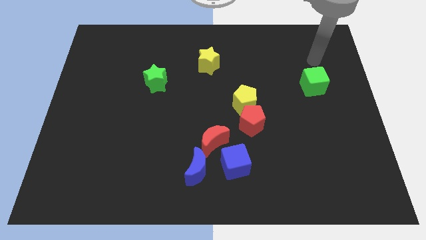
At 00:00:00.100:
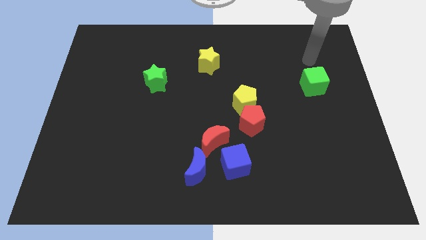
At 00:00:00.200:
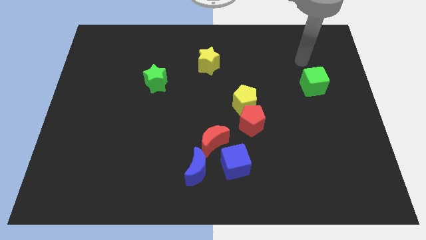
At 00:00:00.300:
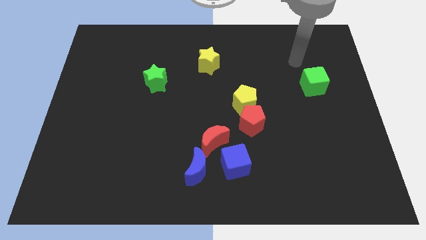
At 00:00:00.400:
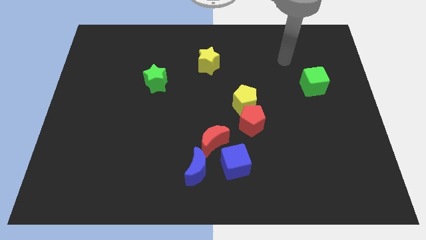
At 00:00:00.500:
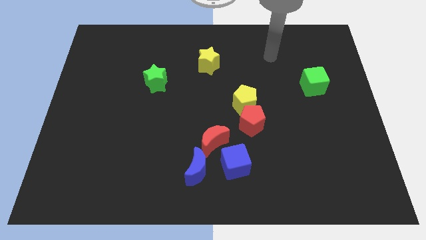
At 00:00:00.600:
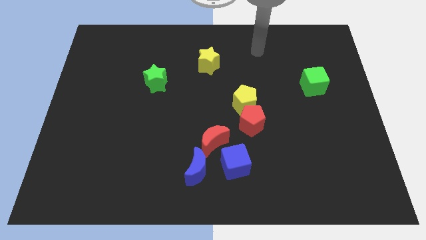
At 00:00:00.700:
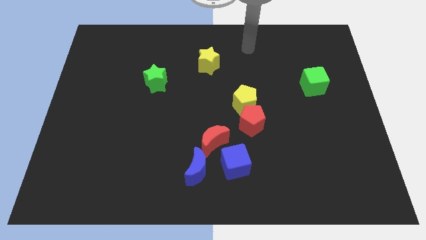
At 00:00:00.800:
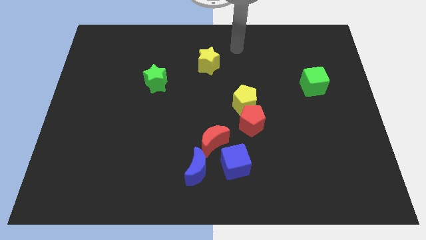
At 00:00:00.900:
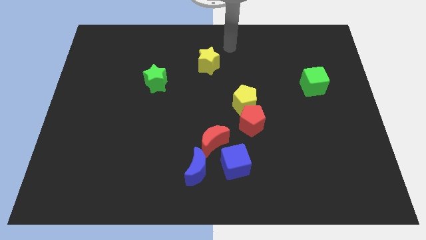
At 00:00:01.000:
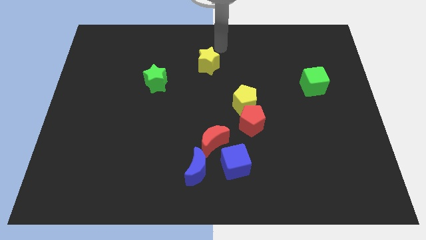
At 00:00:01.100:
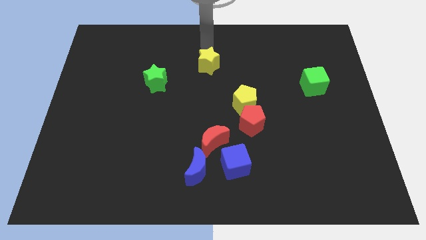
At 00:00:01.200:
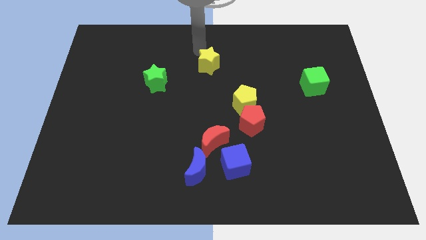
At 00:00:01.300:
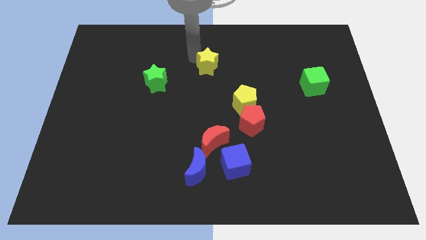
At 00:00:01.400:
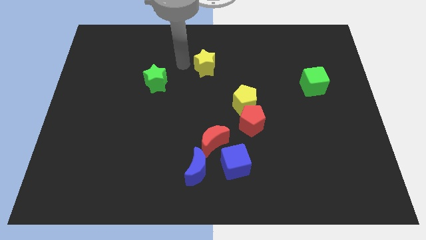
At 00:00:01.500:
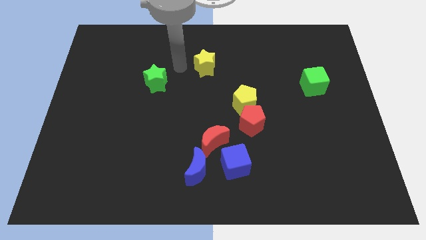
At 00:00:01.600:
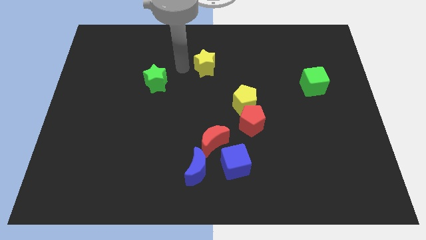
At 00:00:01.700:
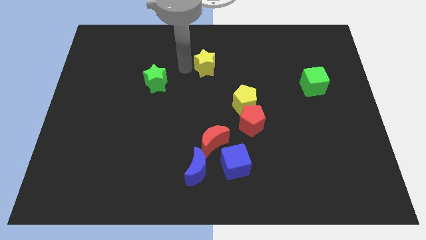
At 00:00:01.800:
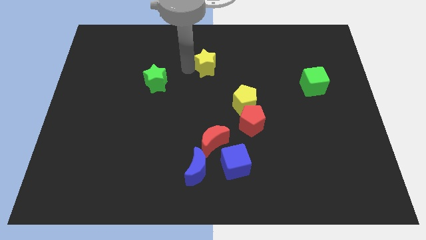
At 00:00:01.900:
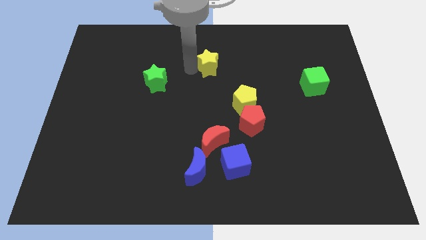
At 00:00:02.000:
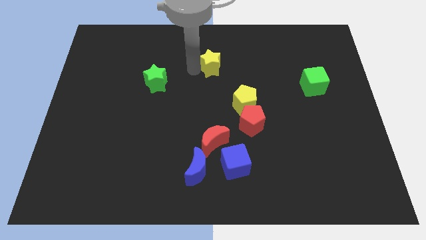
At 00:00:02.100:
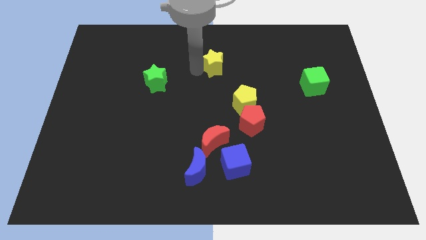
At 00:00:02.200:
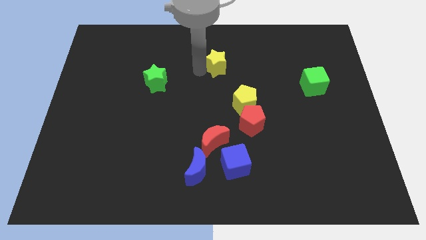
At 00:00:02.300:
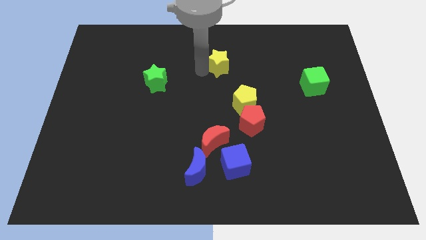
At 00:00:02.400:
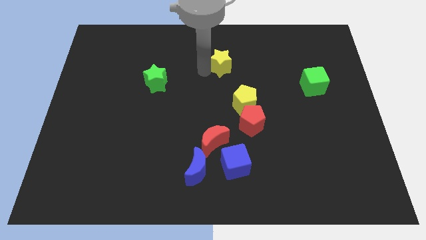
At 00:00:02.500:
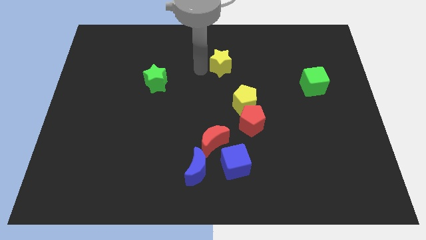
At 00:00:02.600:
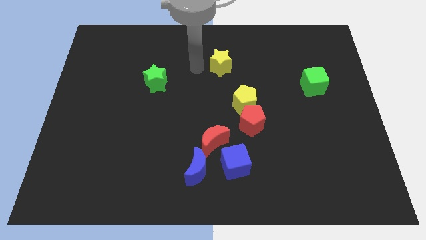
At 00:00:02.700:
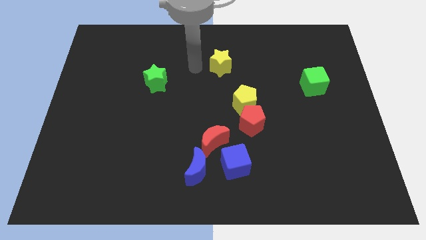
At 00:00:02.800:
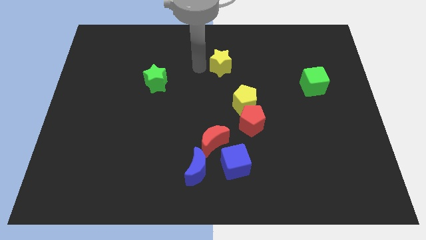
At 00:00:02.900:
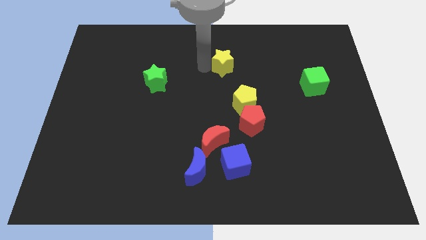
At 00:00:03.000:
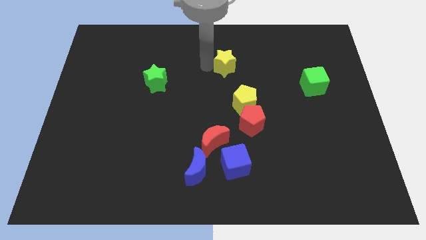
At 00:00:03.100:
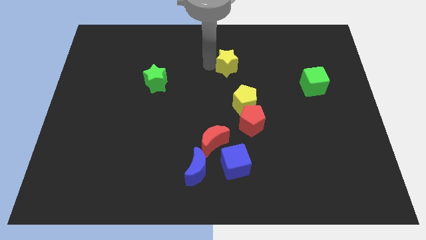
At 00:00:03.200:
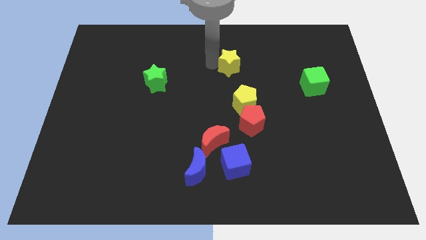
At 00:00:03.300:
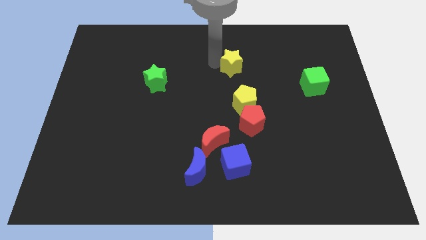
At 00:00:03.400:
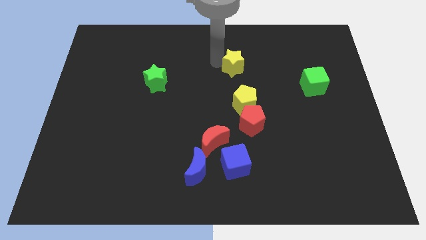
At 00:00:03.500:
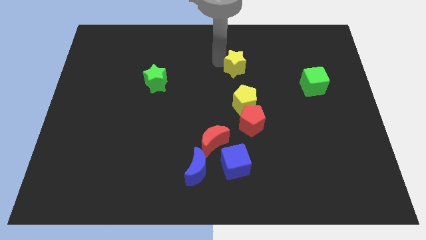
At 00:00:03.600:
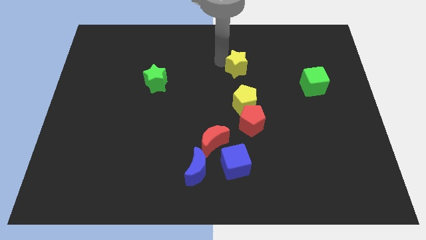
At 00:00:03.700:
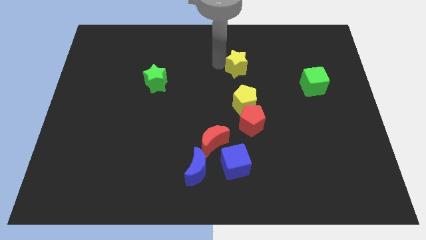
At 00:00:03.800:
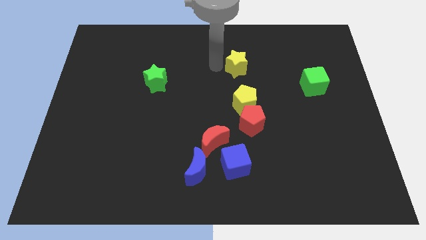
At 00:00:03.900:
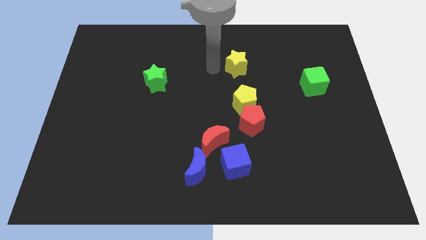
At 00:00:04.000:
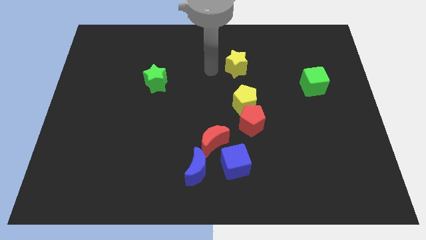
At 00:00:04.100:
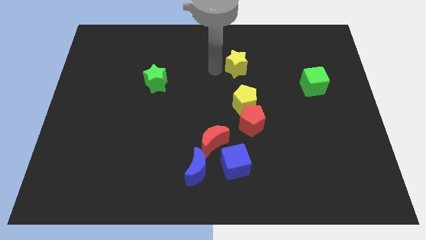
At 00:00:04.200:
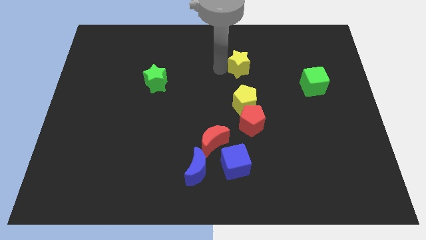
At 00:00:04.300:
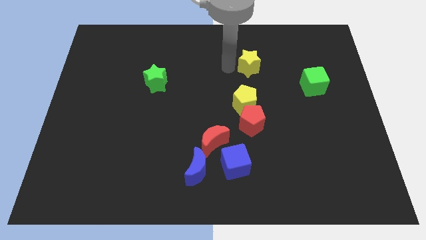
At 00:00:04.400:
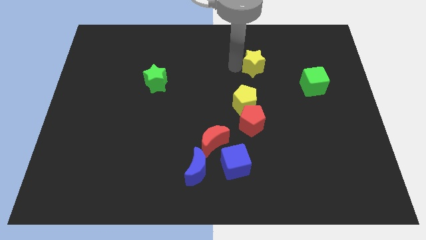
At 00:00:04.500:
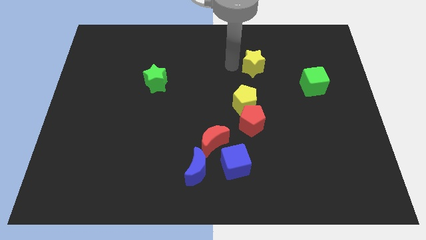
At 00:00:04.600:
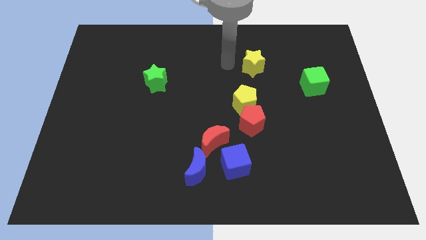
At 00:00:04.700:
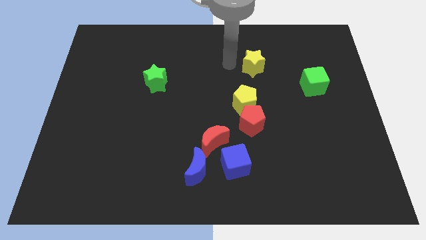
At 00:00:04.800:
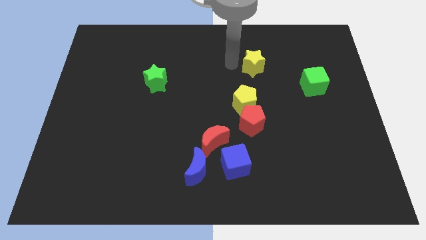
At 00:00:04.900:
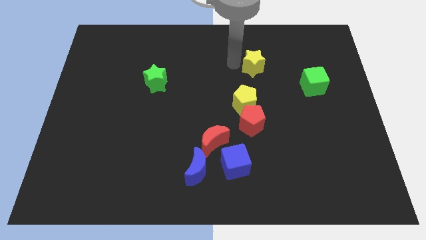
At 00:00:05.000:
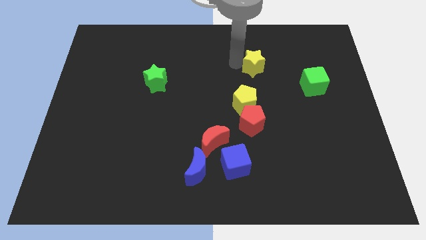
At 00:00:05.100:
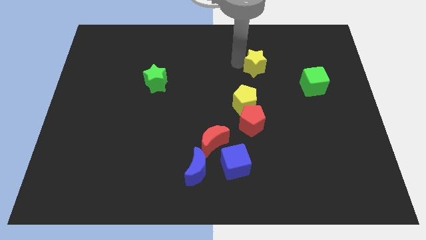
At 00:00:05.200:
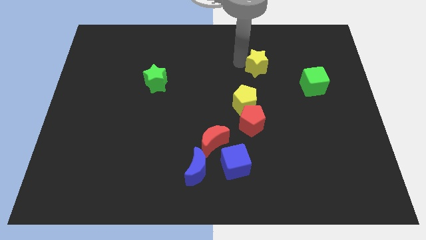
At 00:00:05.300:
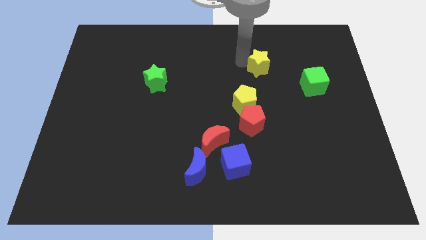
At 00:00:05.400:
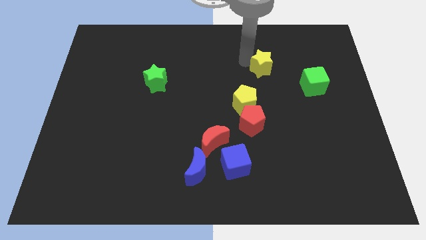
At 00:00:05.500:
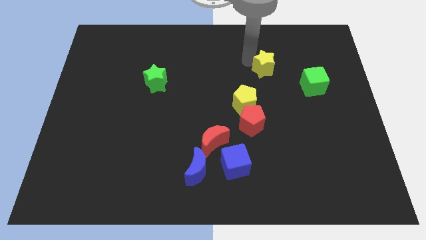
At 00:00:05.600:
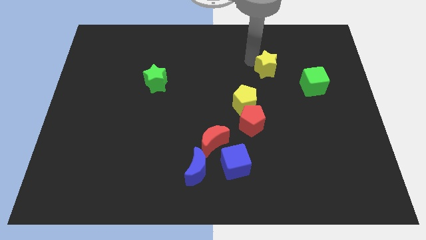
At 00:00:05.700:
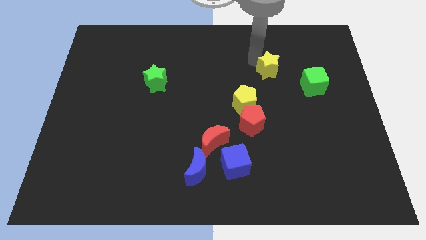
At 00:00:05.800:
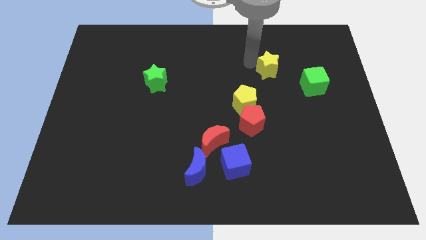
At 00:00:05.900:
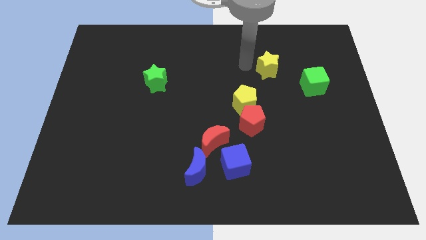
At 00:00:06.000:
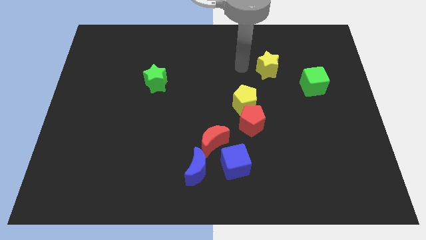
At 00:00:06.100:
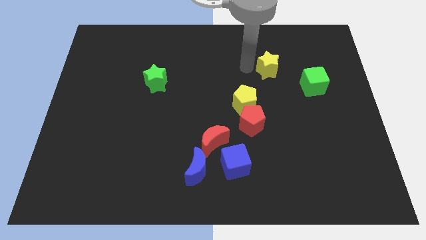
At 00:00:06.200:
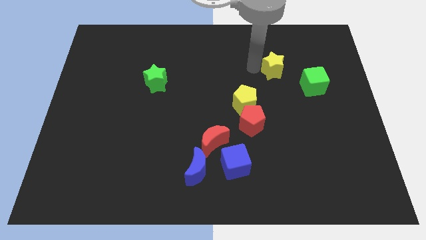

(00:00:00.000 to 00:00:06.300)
push the yellow star to the top left of the green cube
